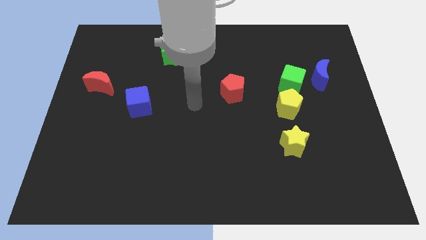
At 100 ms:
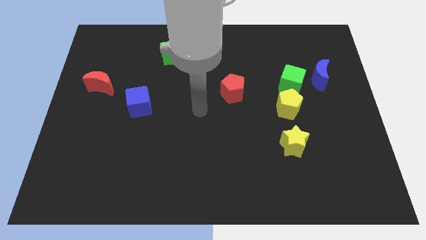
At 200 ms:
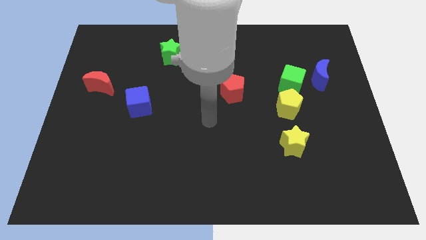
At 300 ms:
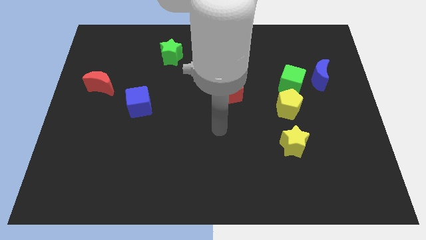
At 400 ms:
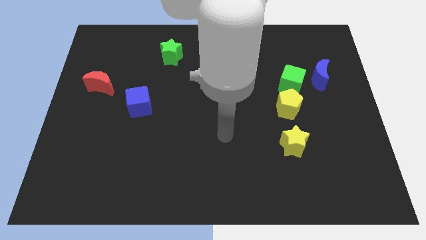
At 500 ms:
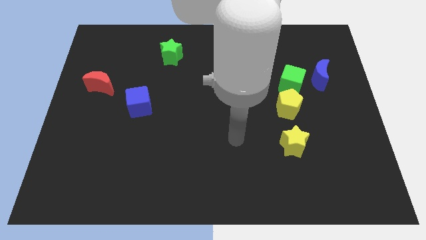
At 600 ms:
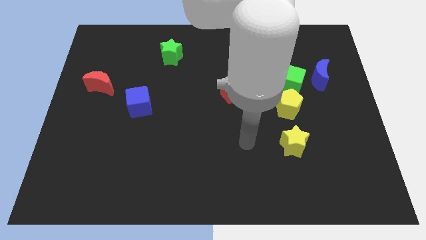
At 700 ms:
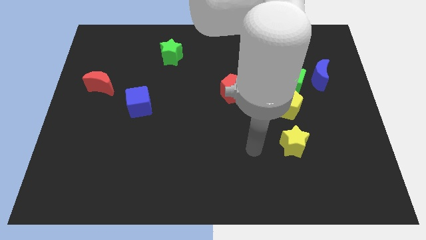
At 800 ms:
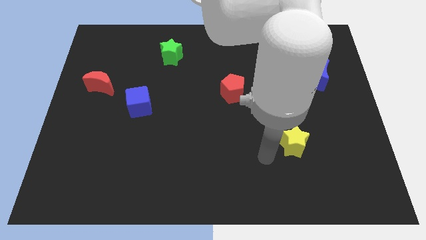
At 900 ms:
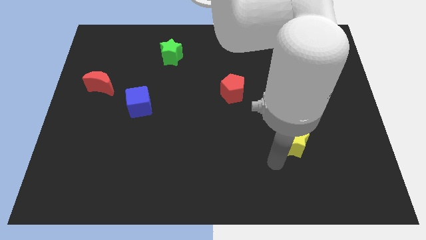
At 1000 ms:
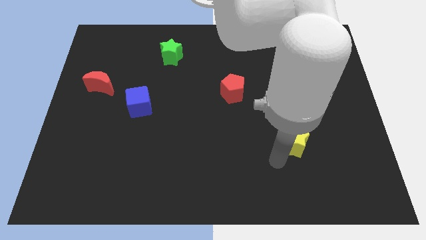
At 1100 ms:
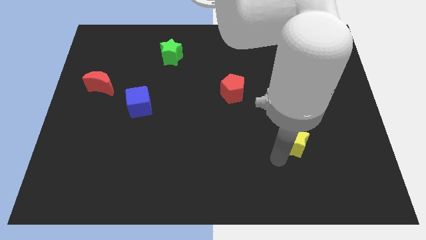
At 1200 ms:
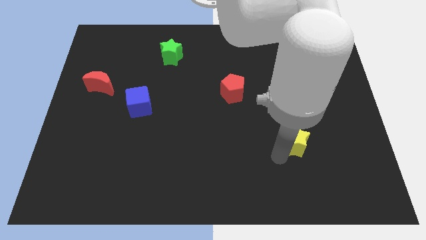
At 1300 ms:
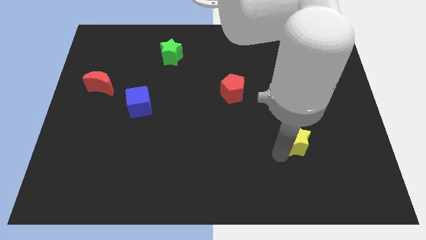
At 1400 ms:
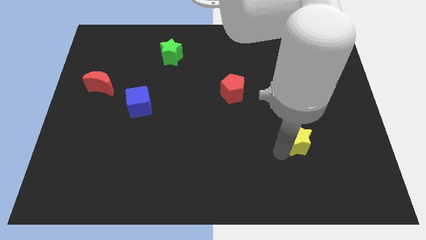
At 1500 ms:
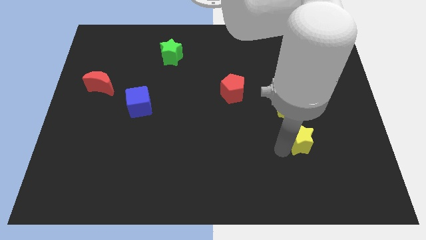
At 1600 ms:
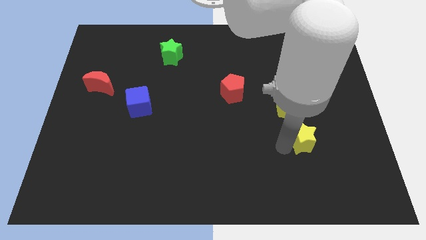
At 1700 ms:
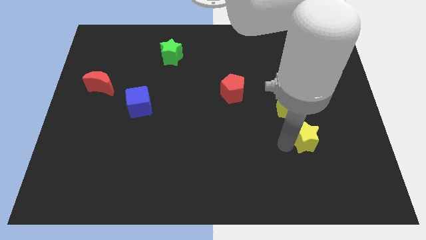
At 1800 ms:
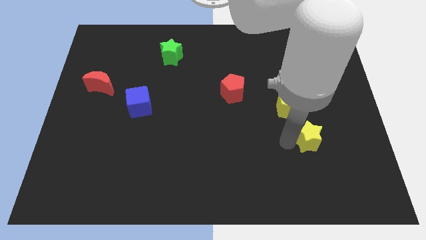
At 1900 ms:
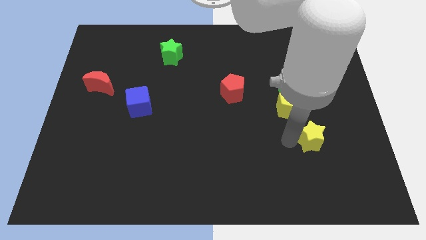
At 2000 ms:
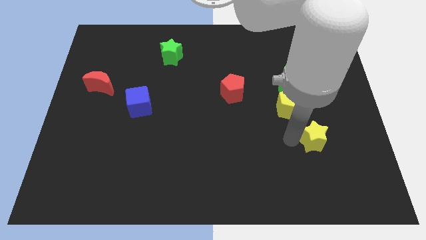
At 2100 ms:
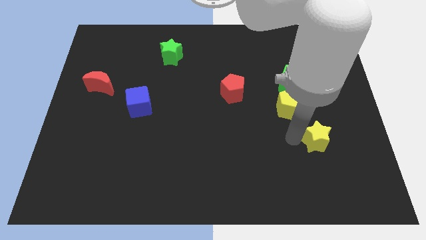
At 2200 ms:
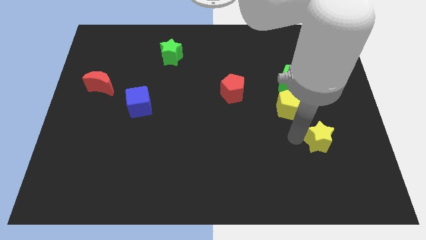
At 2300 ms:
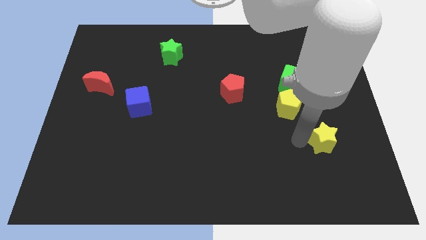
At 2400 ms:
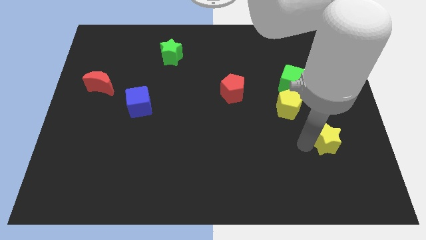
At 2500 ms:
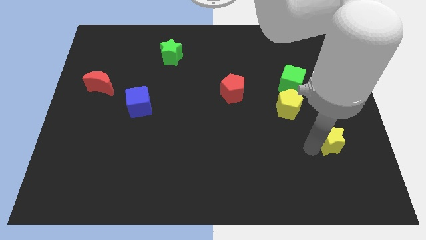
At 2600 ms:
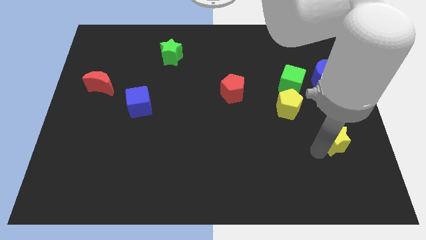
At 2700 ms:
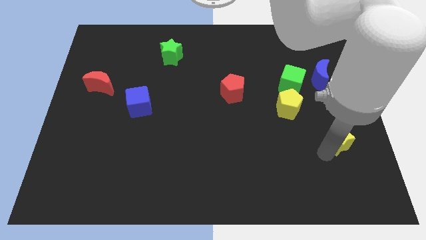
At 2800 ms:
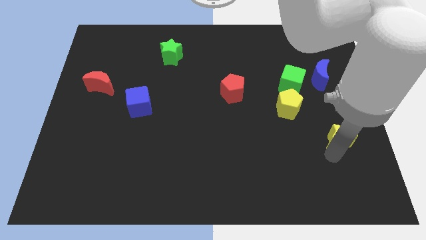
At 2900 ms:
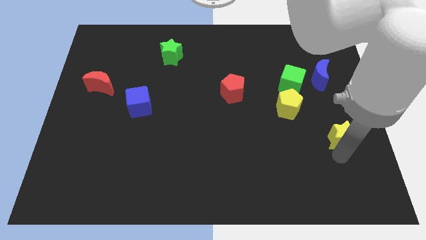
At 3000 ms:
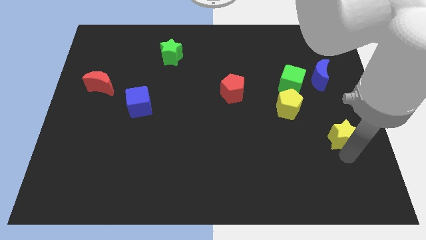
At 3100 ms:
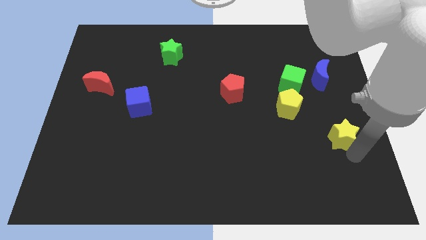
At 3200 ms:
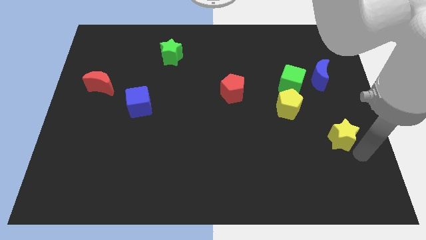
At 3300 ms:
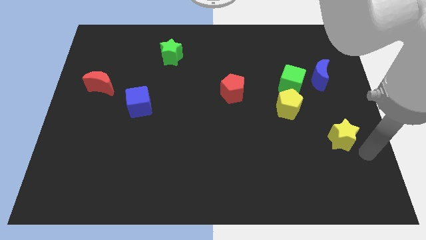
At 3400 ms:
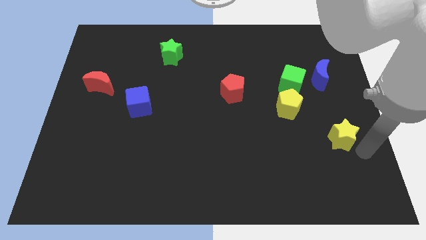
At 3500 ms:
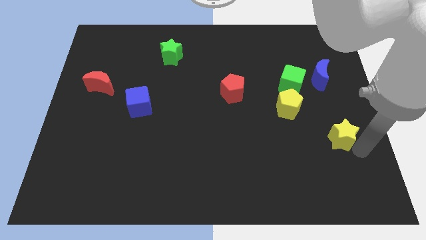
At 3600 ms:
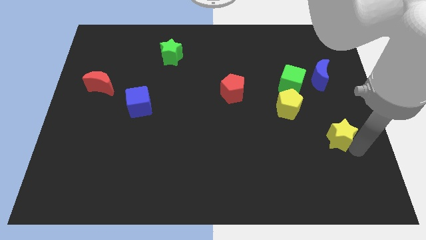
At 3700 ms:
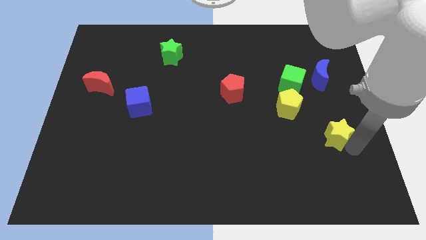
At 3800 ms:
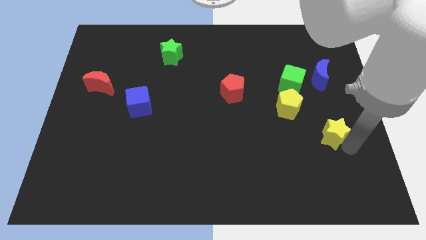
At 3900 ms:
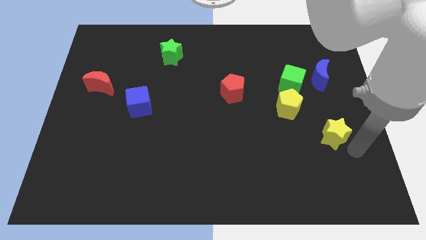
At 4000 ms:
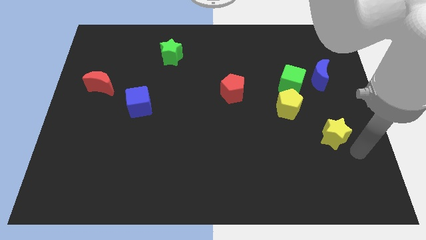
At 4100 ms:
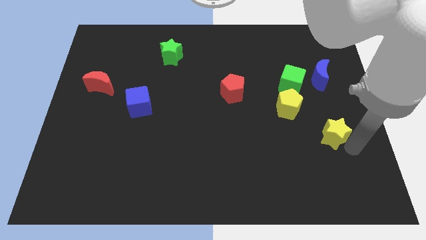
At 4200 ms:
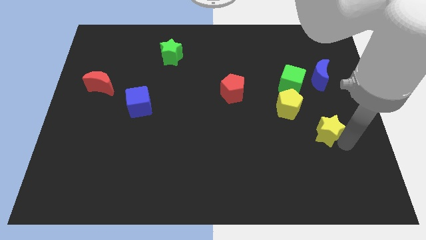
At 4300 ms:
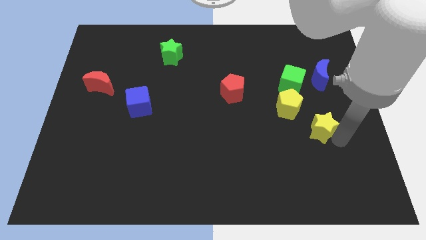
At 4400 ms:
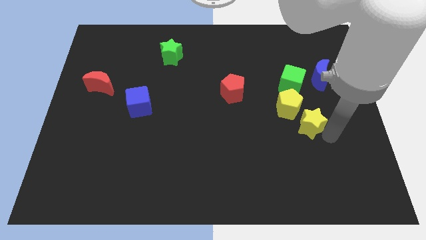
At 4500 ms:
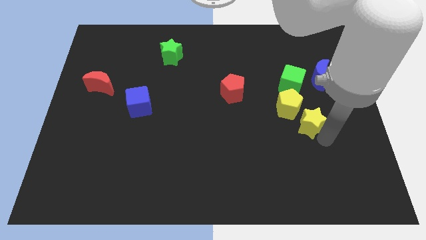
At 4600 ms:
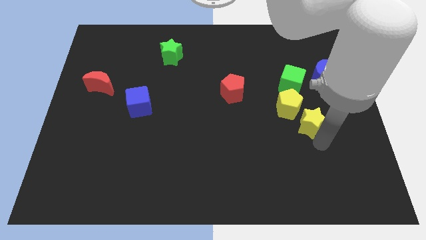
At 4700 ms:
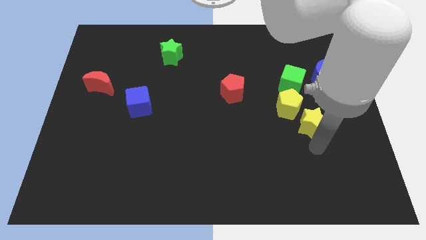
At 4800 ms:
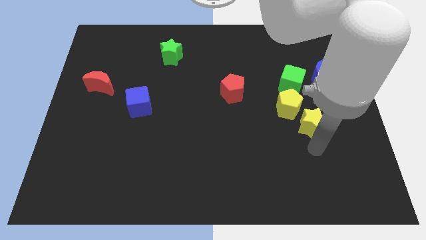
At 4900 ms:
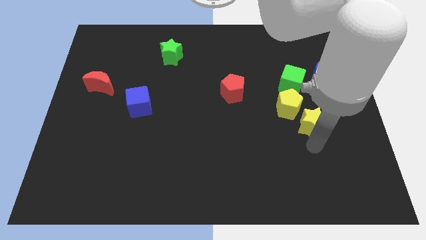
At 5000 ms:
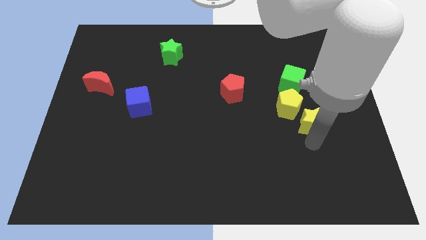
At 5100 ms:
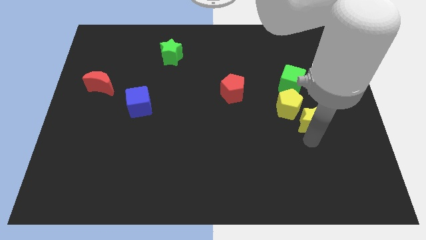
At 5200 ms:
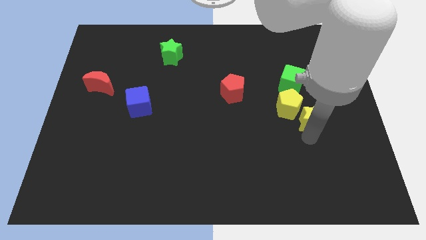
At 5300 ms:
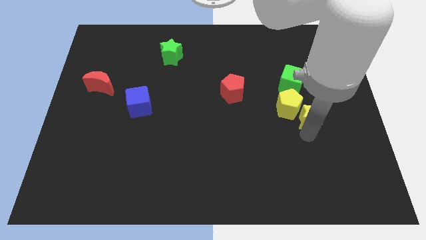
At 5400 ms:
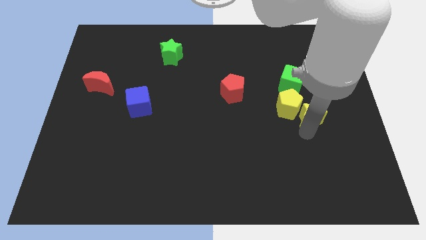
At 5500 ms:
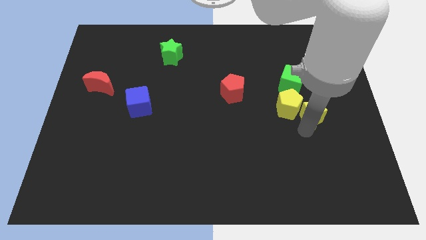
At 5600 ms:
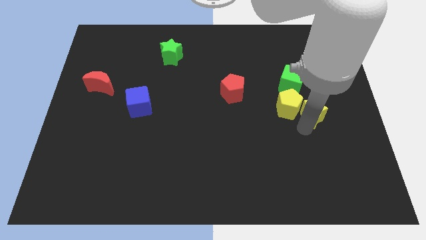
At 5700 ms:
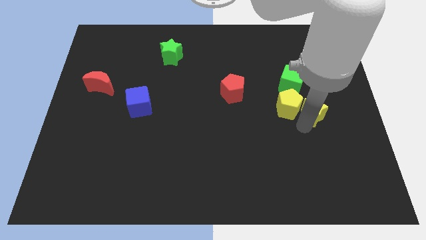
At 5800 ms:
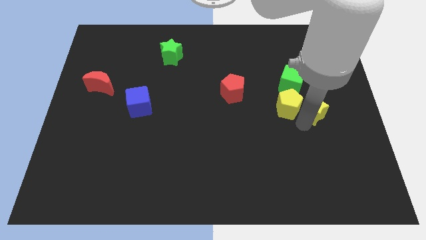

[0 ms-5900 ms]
put the yellow star to the top right side of the yellow pentagon
